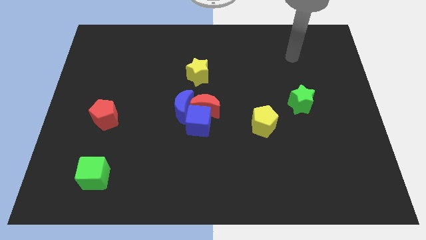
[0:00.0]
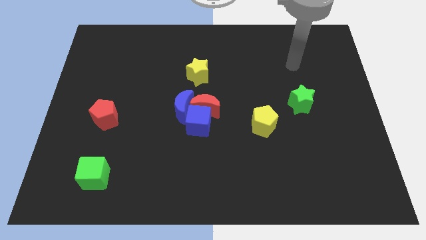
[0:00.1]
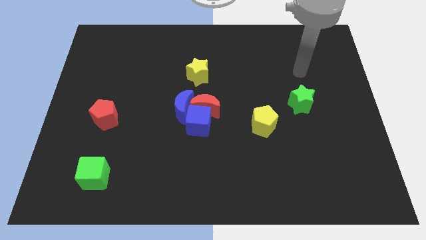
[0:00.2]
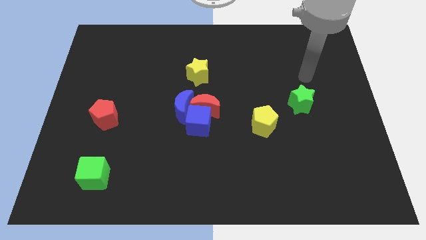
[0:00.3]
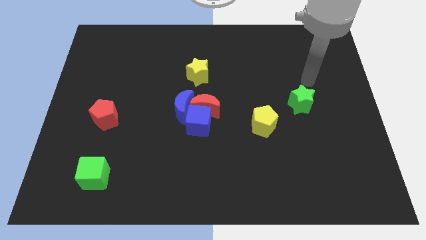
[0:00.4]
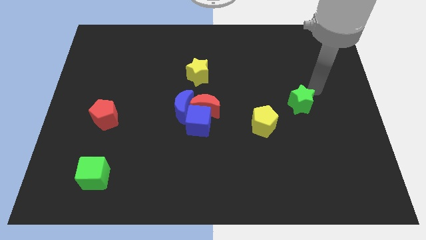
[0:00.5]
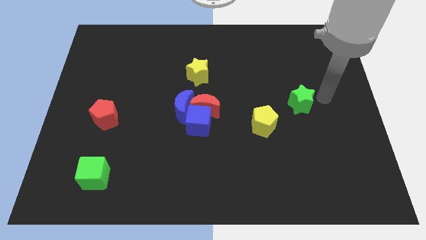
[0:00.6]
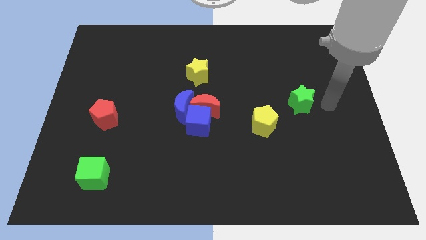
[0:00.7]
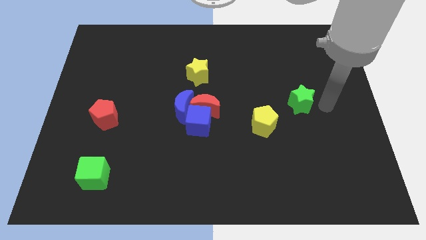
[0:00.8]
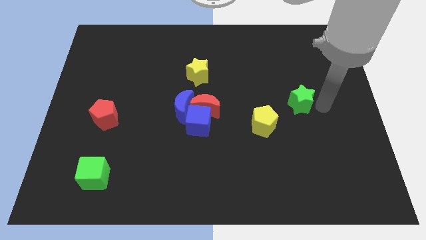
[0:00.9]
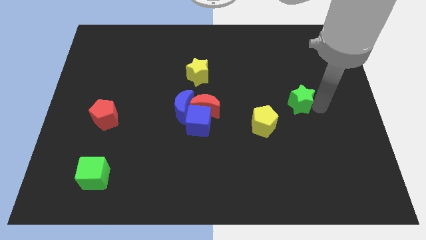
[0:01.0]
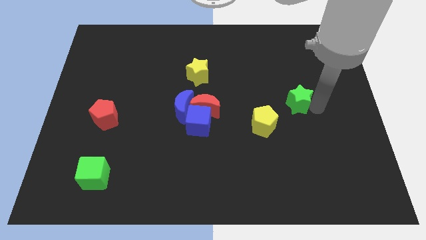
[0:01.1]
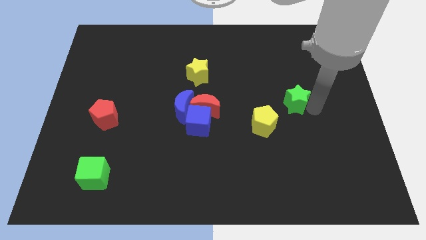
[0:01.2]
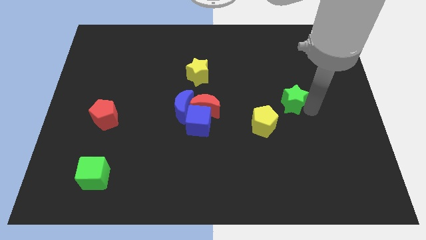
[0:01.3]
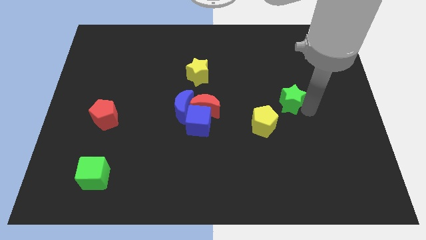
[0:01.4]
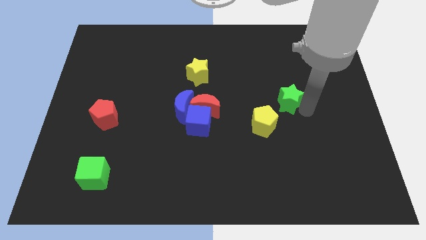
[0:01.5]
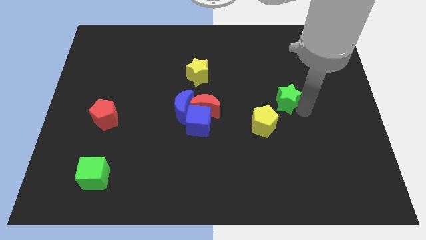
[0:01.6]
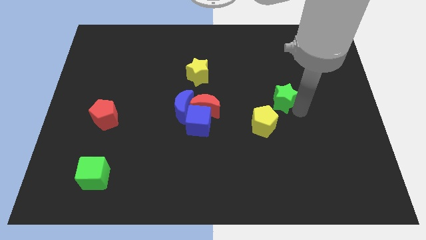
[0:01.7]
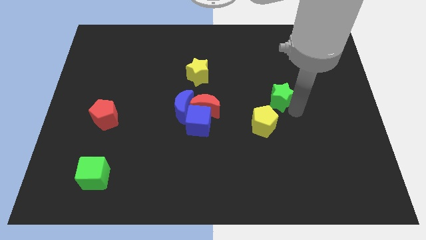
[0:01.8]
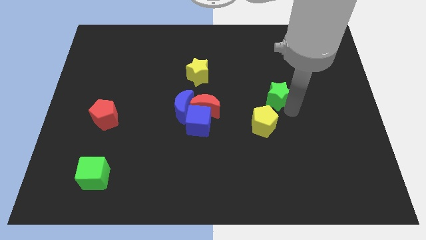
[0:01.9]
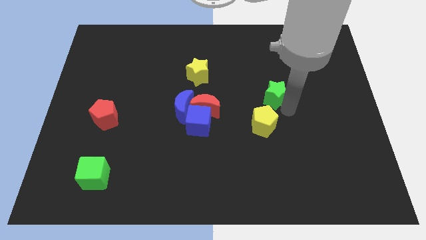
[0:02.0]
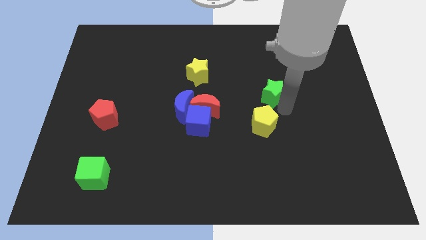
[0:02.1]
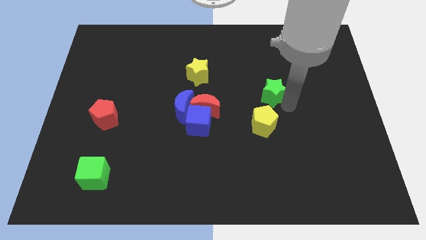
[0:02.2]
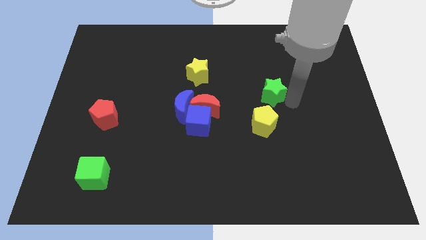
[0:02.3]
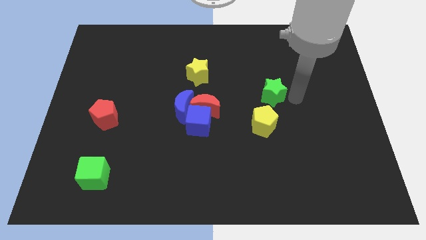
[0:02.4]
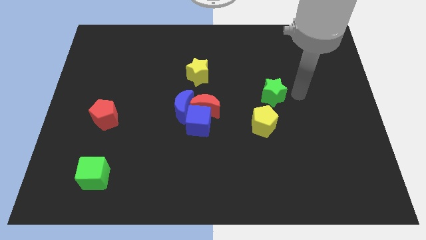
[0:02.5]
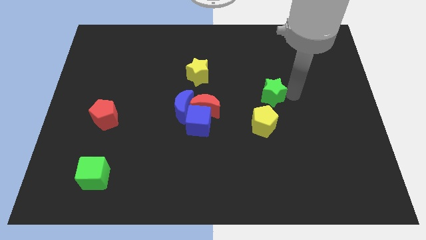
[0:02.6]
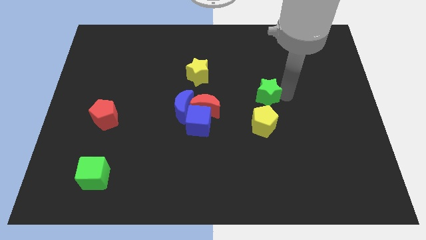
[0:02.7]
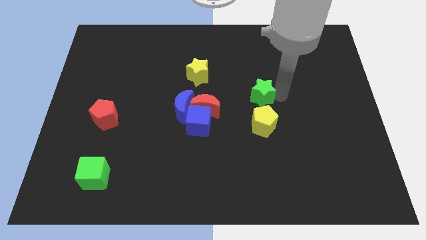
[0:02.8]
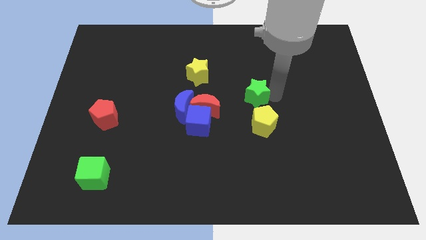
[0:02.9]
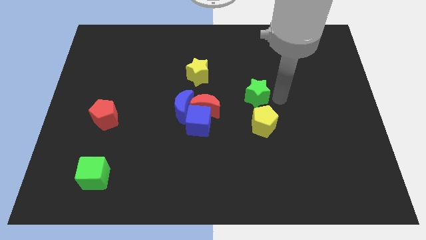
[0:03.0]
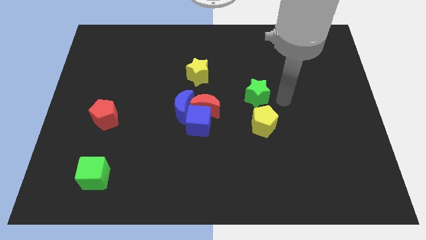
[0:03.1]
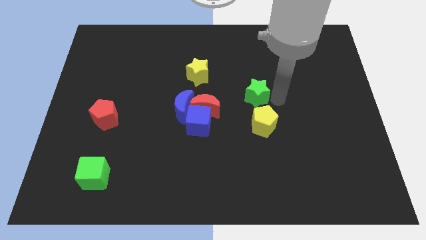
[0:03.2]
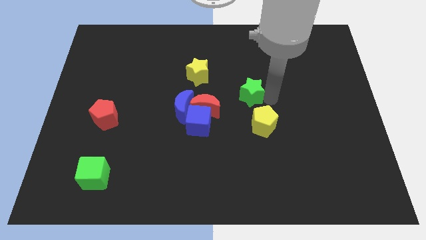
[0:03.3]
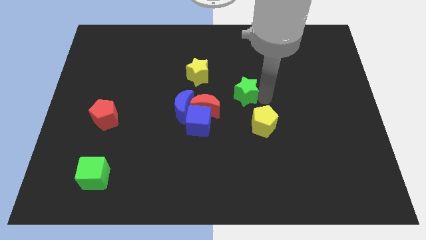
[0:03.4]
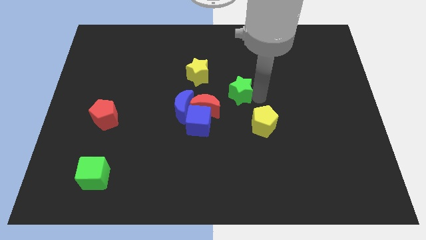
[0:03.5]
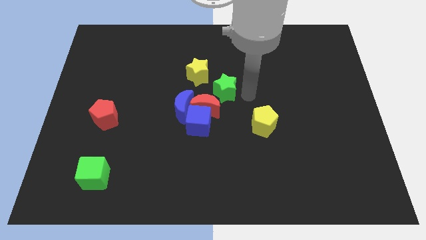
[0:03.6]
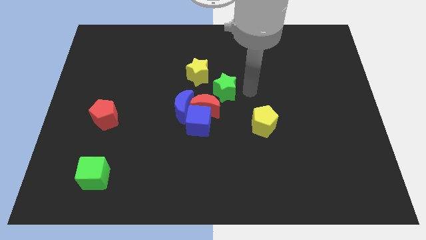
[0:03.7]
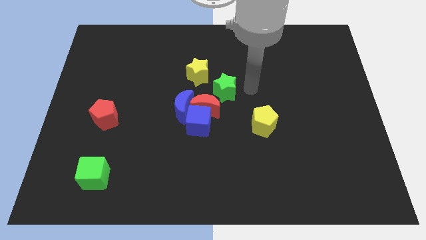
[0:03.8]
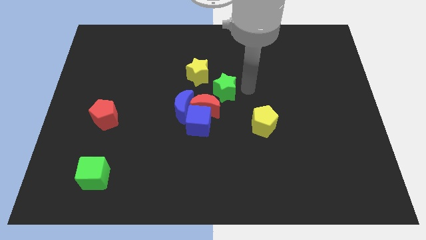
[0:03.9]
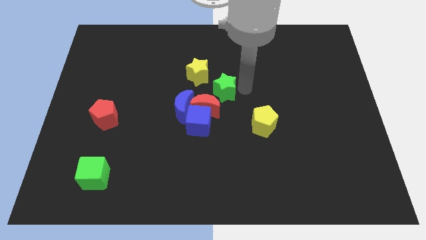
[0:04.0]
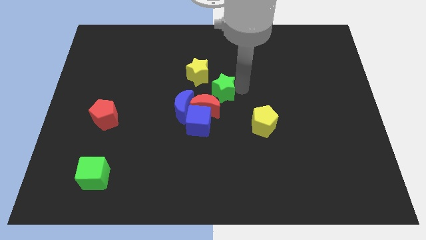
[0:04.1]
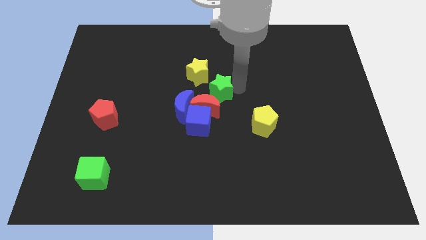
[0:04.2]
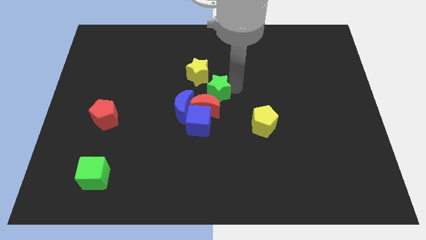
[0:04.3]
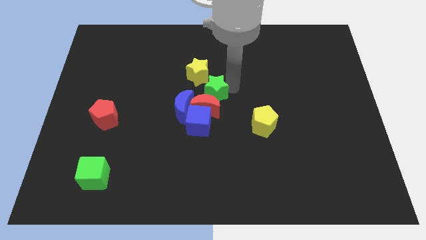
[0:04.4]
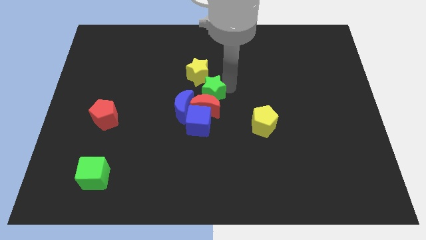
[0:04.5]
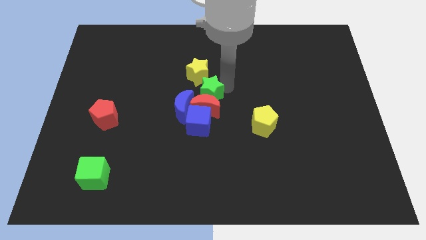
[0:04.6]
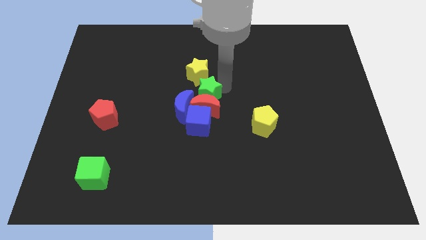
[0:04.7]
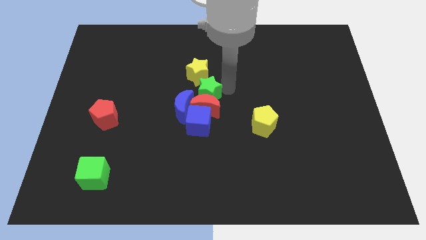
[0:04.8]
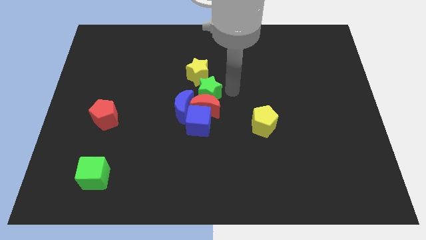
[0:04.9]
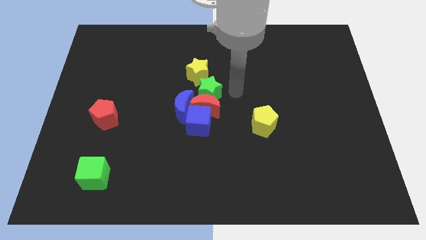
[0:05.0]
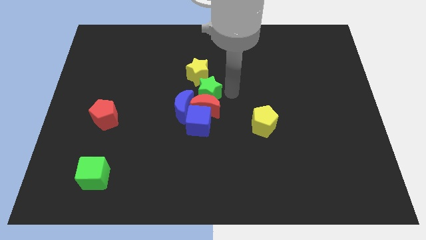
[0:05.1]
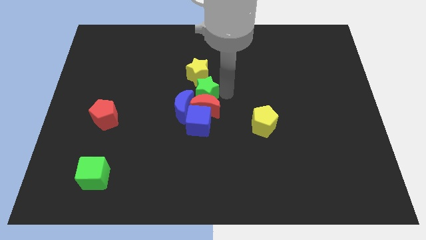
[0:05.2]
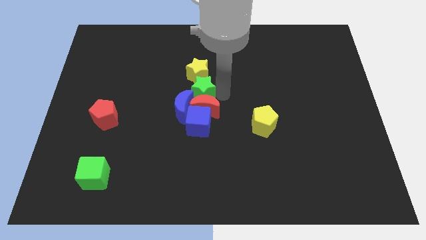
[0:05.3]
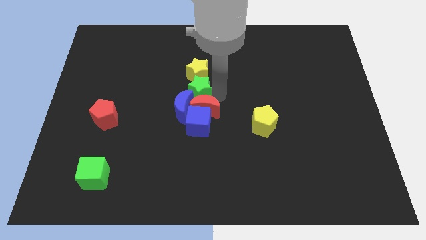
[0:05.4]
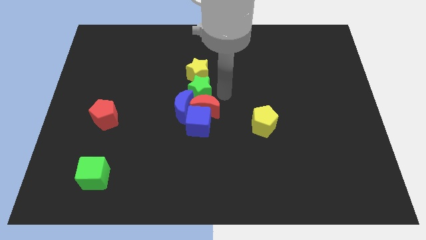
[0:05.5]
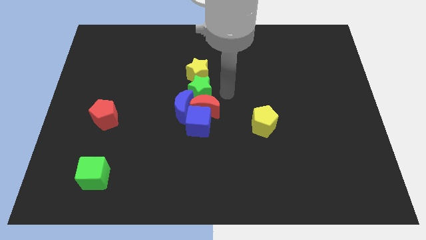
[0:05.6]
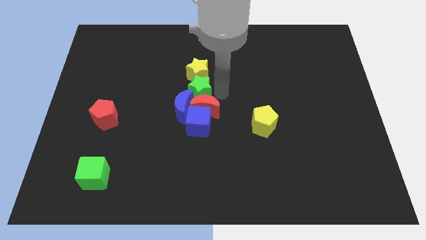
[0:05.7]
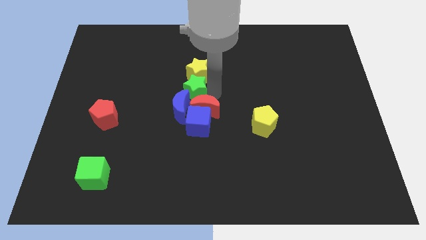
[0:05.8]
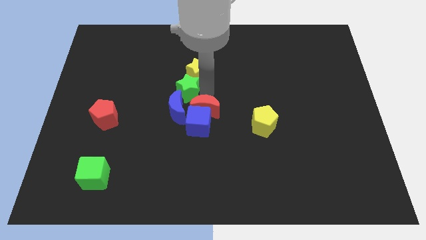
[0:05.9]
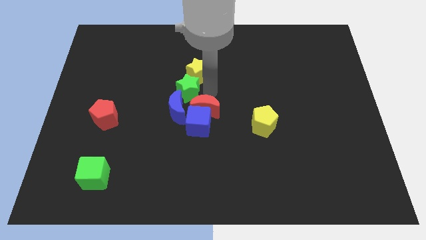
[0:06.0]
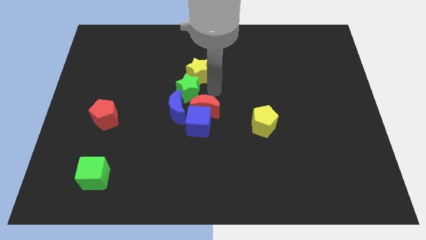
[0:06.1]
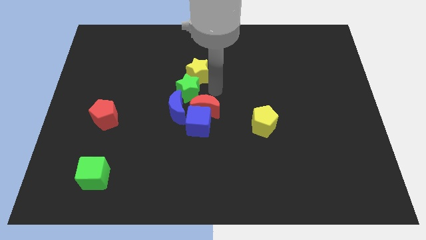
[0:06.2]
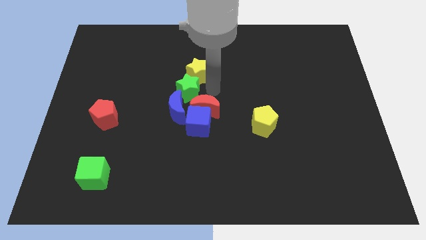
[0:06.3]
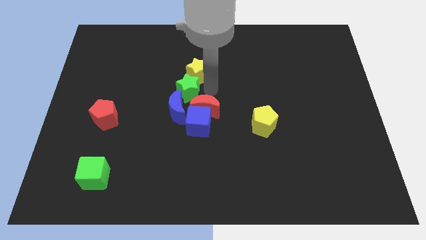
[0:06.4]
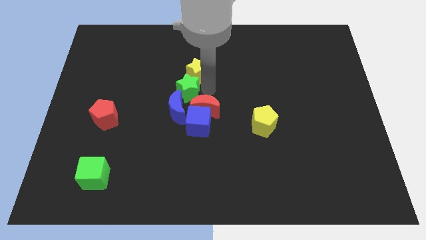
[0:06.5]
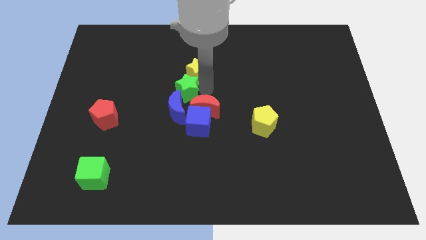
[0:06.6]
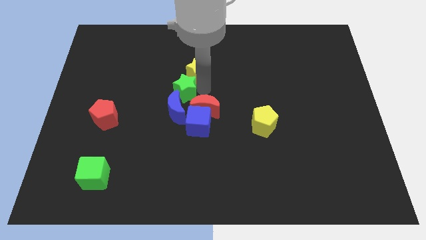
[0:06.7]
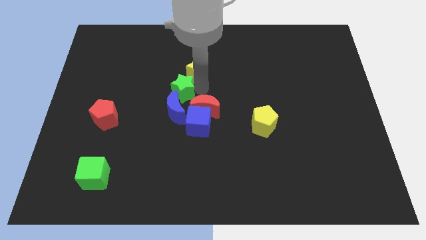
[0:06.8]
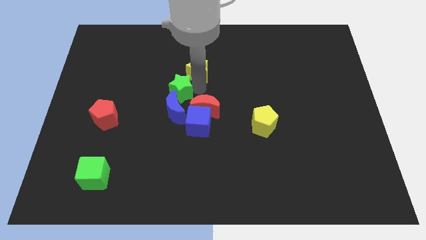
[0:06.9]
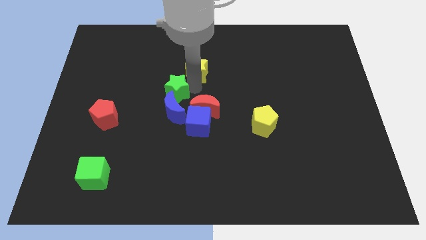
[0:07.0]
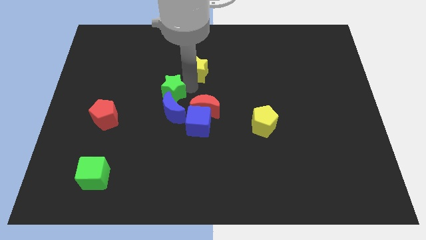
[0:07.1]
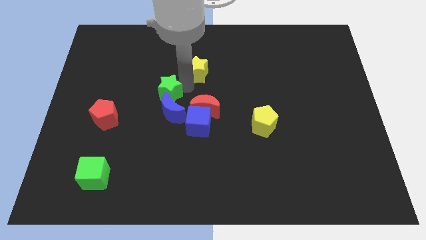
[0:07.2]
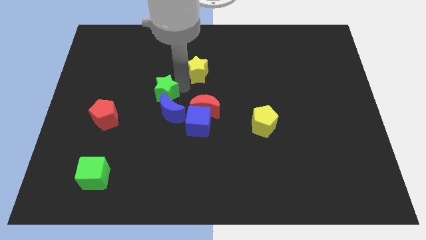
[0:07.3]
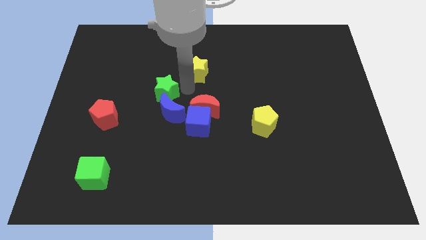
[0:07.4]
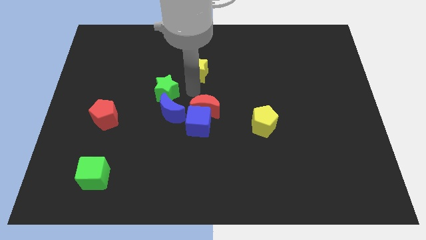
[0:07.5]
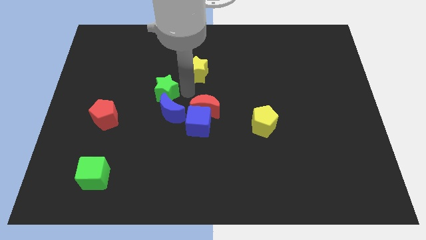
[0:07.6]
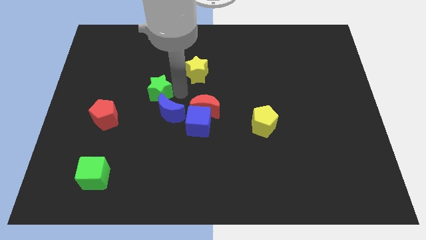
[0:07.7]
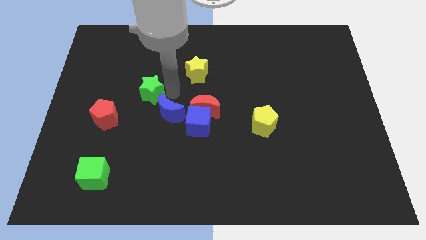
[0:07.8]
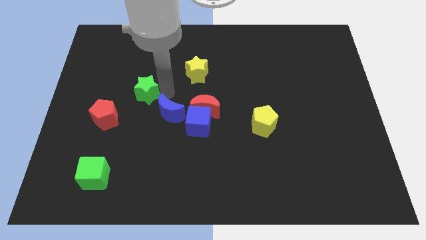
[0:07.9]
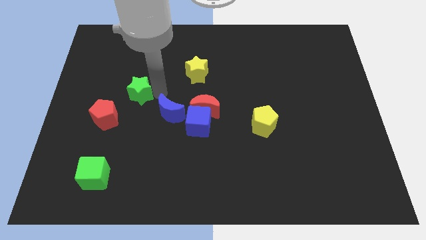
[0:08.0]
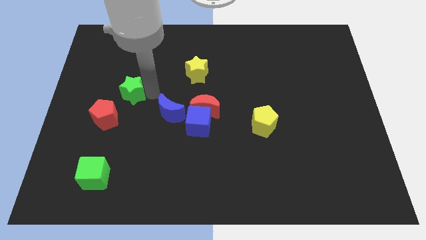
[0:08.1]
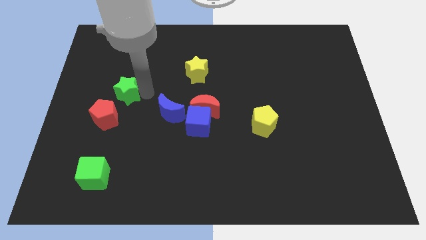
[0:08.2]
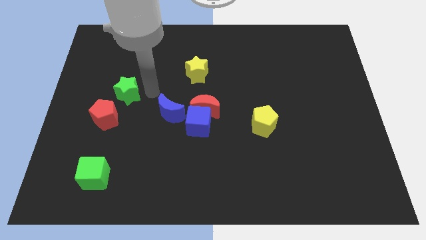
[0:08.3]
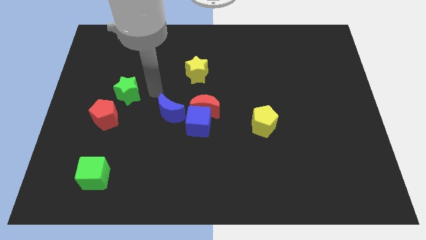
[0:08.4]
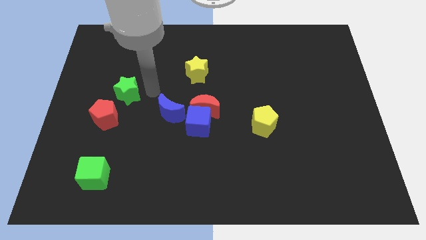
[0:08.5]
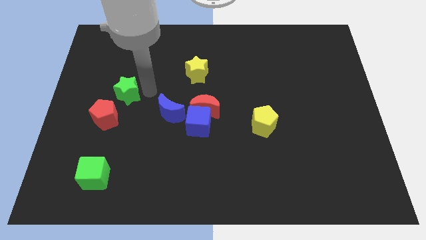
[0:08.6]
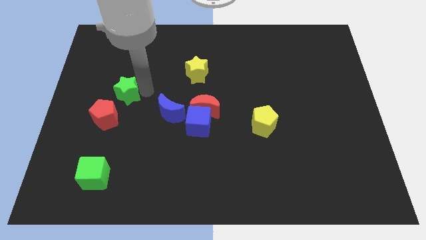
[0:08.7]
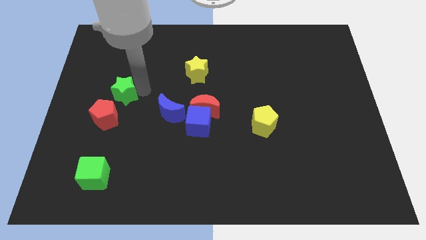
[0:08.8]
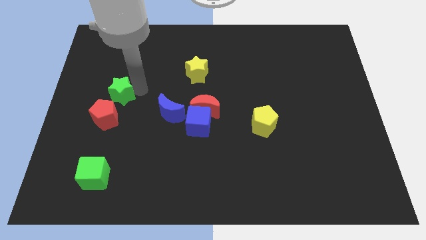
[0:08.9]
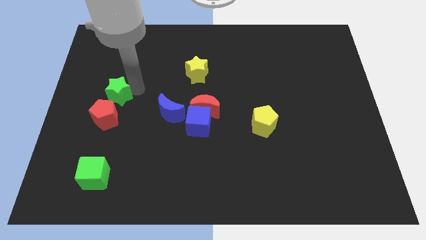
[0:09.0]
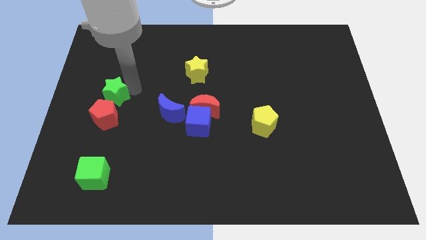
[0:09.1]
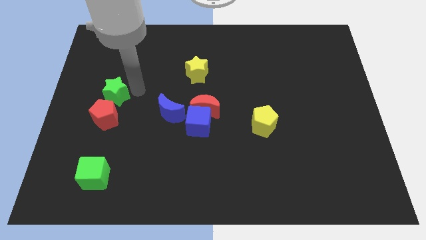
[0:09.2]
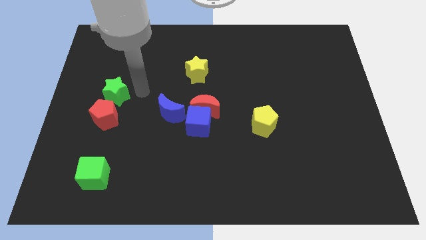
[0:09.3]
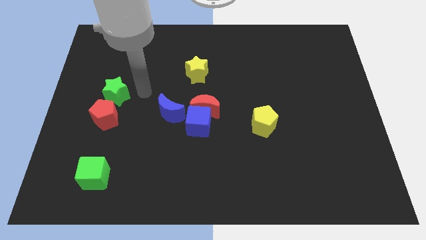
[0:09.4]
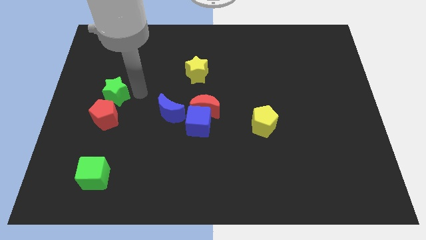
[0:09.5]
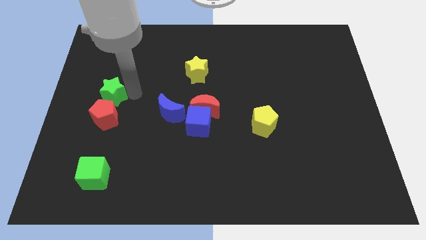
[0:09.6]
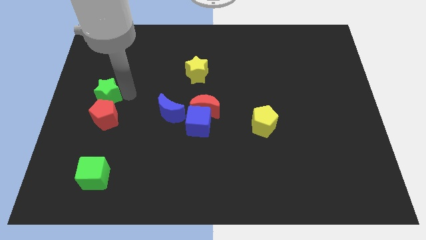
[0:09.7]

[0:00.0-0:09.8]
put the green star to the left side of the board
